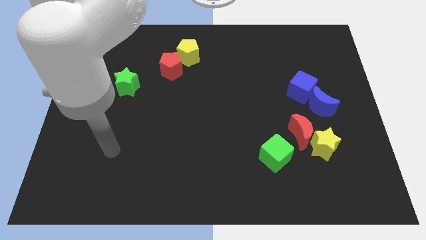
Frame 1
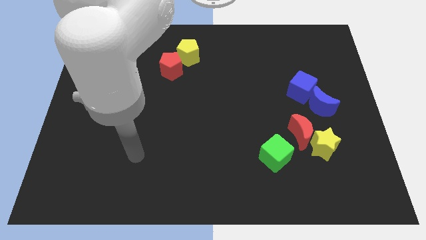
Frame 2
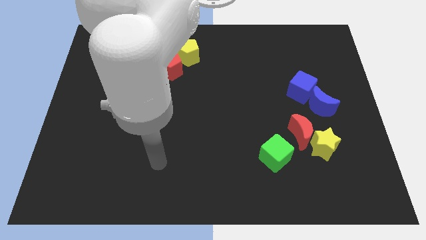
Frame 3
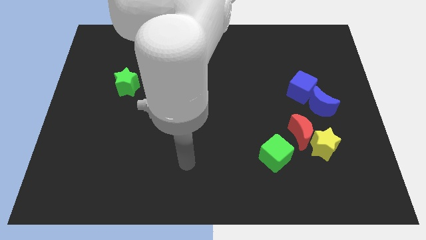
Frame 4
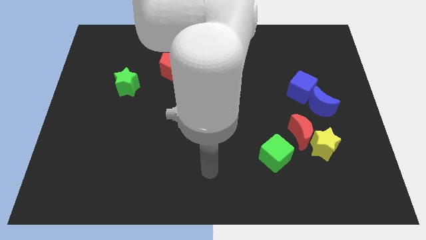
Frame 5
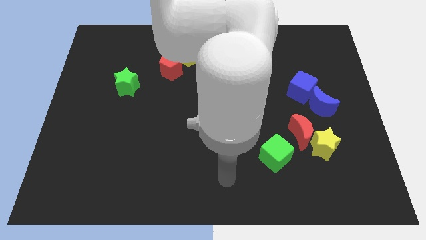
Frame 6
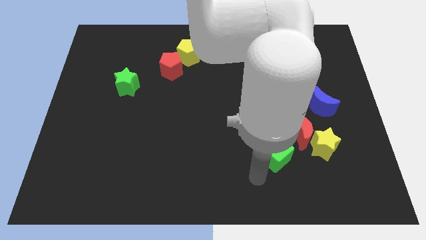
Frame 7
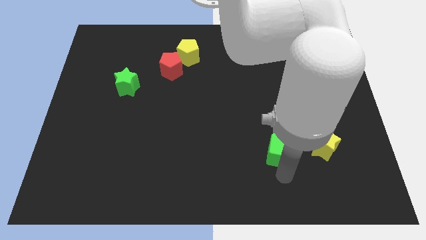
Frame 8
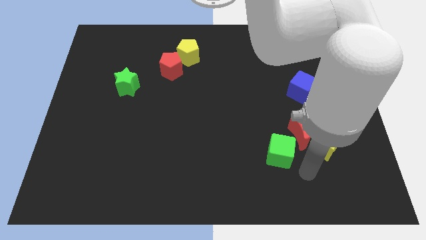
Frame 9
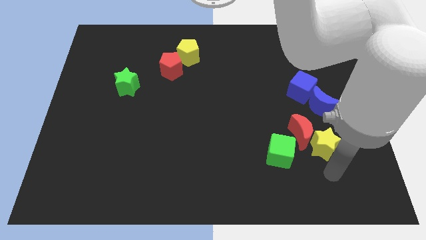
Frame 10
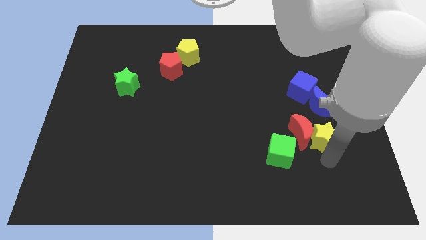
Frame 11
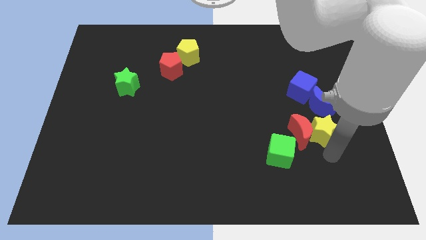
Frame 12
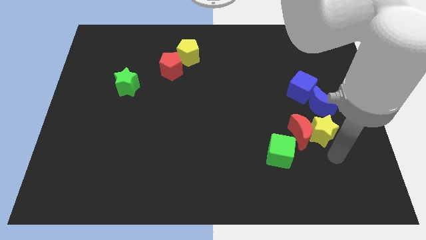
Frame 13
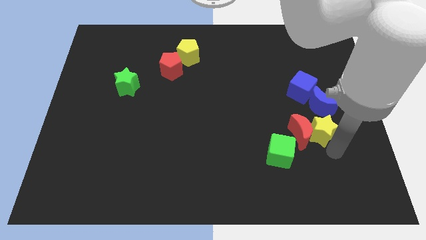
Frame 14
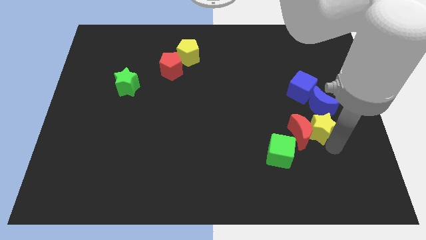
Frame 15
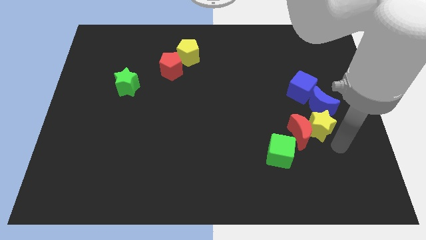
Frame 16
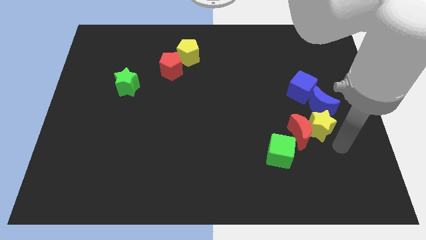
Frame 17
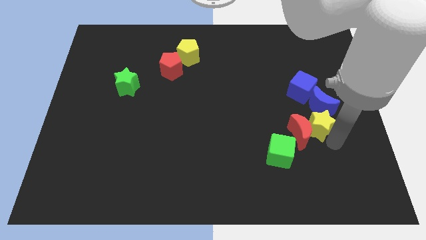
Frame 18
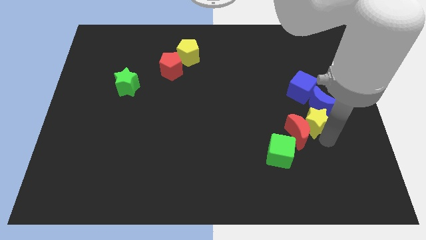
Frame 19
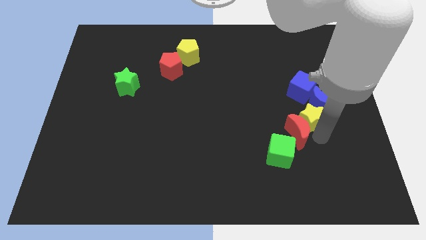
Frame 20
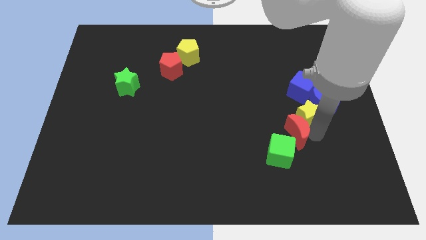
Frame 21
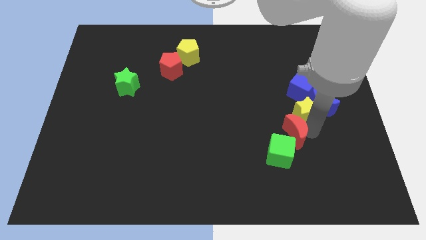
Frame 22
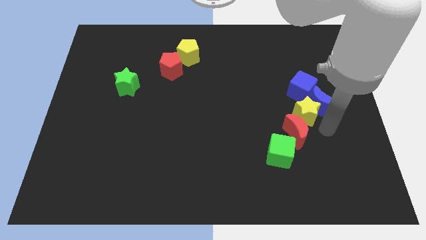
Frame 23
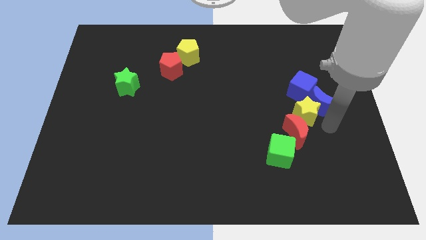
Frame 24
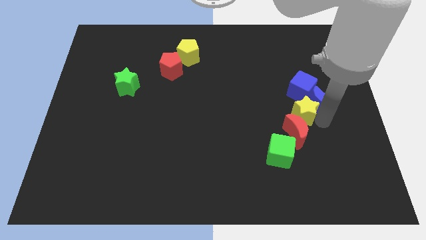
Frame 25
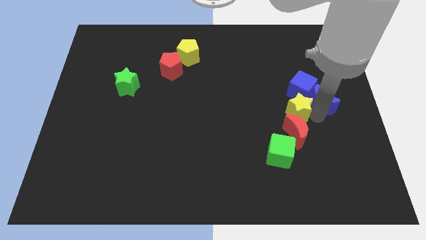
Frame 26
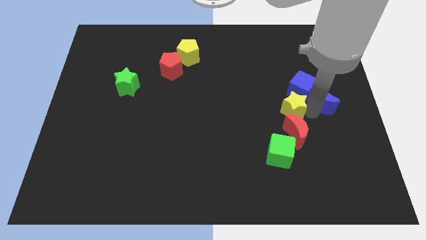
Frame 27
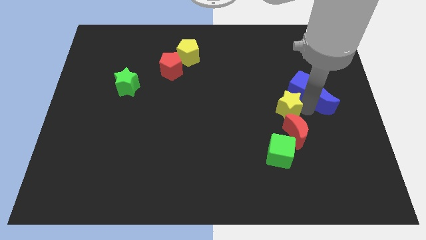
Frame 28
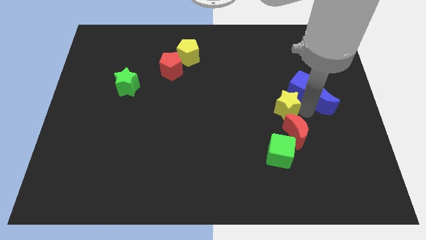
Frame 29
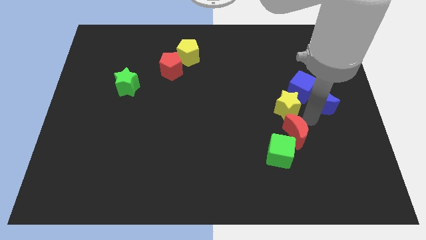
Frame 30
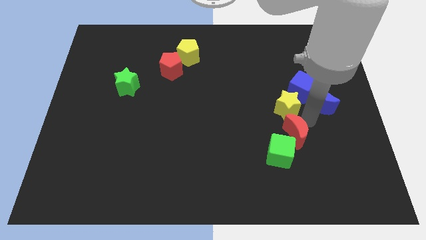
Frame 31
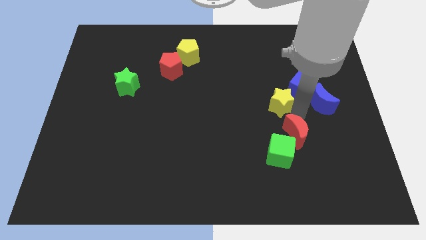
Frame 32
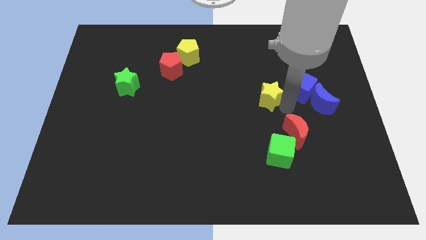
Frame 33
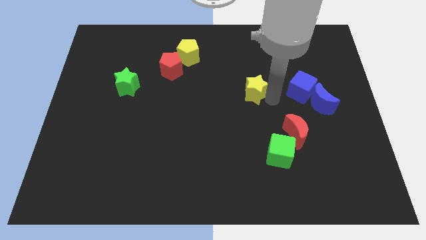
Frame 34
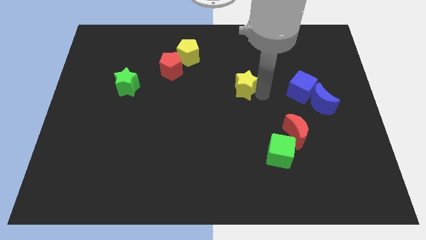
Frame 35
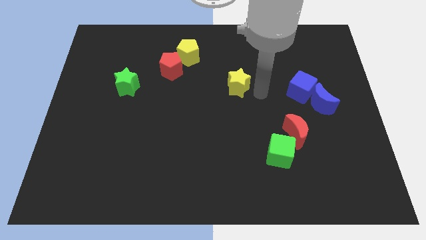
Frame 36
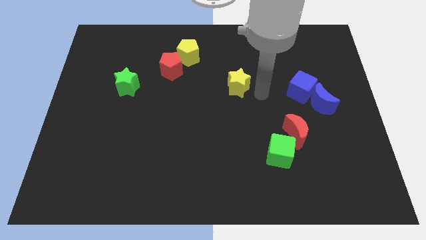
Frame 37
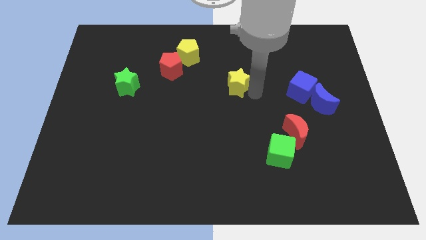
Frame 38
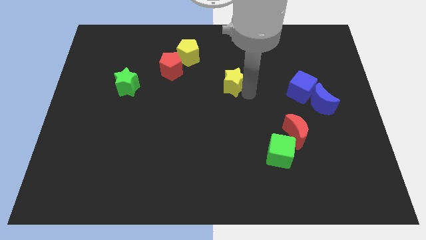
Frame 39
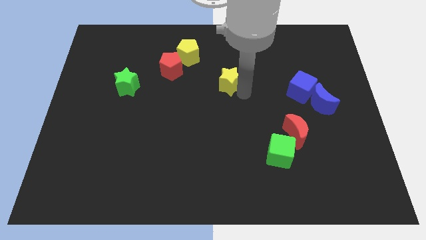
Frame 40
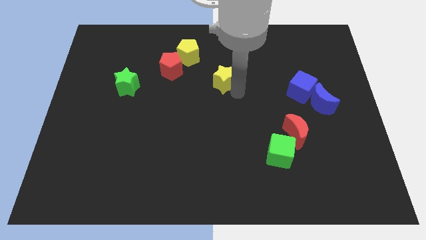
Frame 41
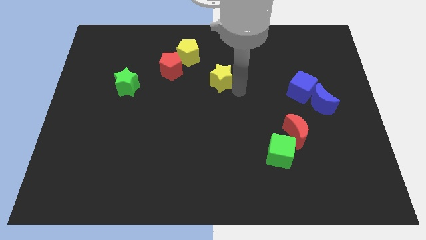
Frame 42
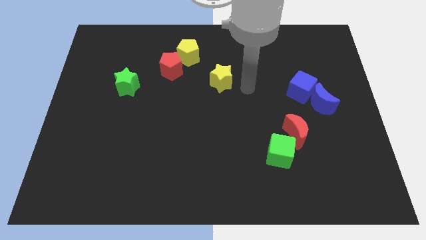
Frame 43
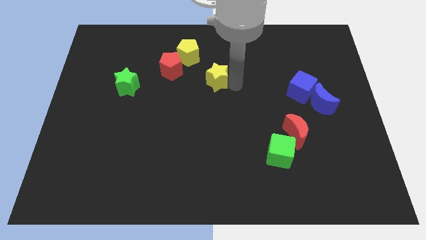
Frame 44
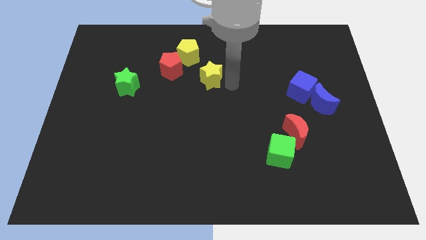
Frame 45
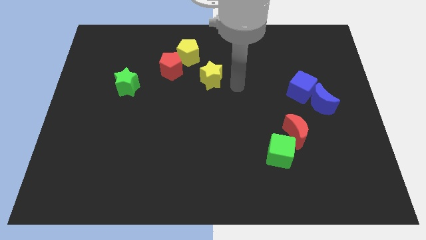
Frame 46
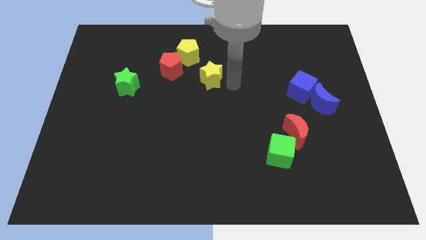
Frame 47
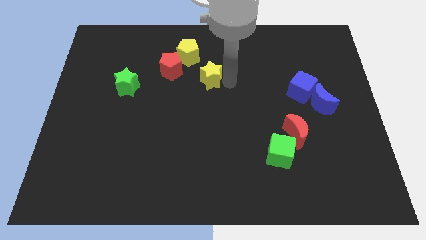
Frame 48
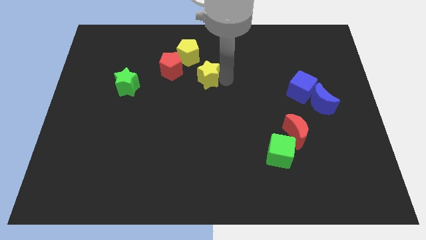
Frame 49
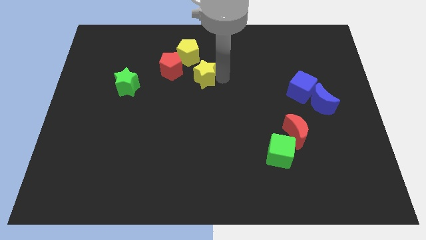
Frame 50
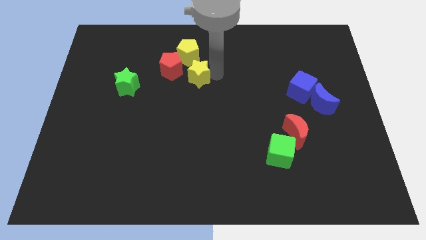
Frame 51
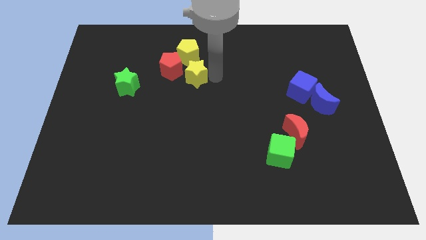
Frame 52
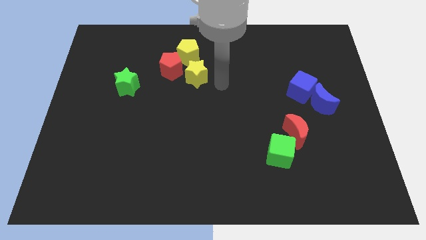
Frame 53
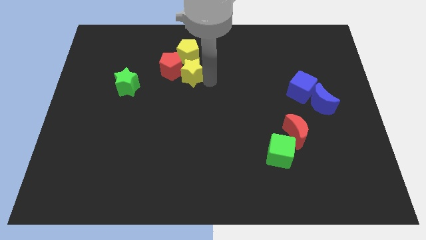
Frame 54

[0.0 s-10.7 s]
move the yellow star next to the red pentagon

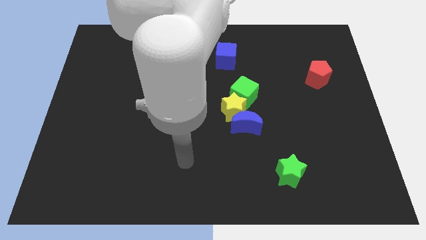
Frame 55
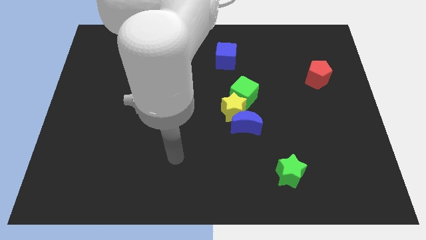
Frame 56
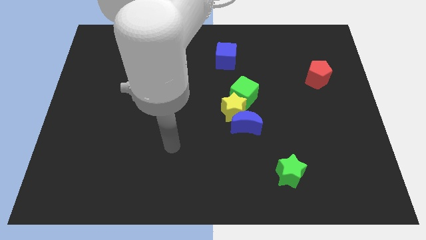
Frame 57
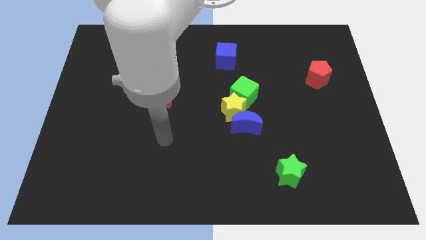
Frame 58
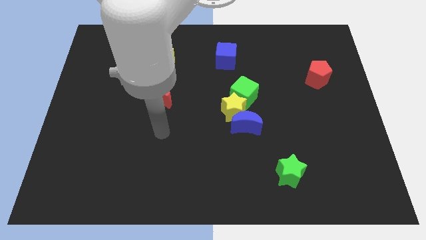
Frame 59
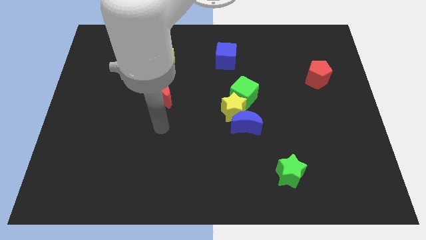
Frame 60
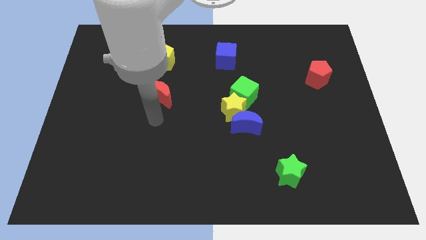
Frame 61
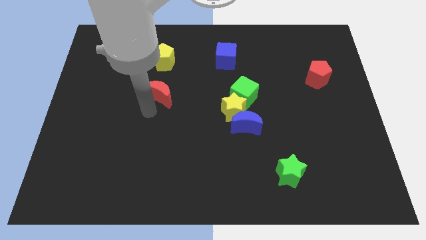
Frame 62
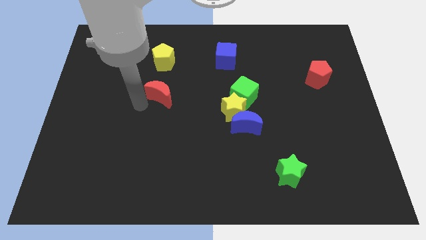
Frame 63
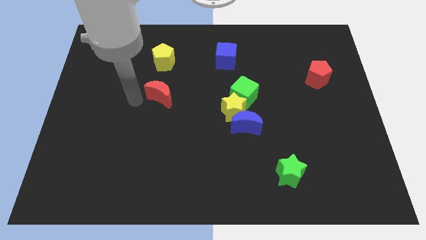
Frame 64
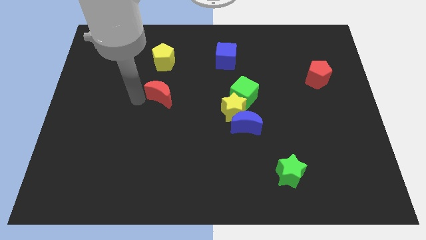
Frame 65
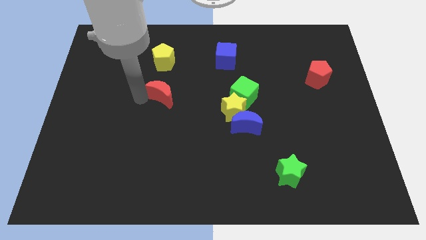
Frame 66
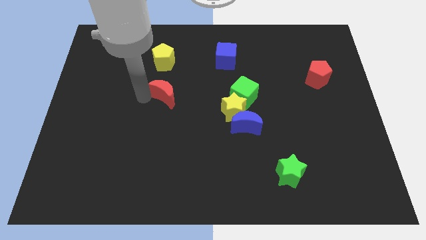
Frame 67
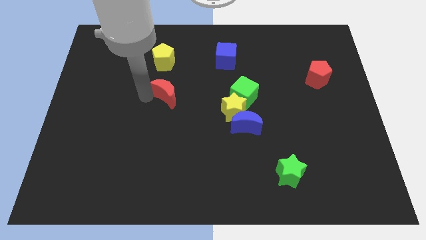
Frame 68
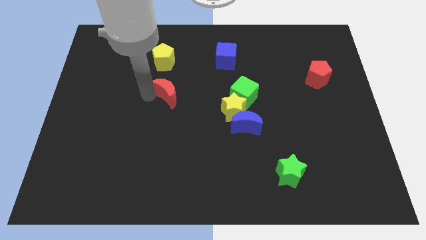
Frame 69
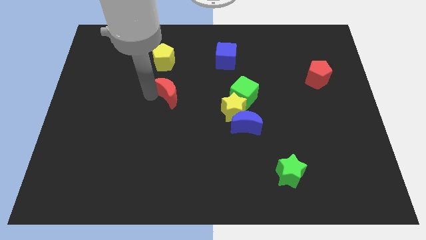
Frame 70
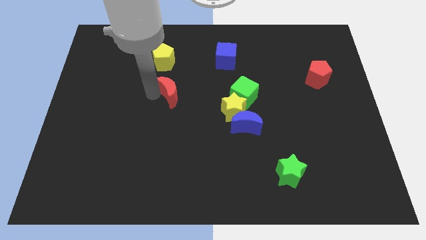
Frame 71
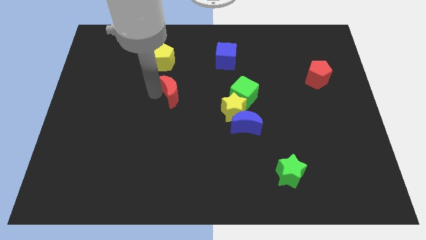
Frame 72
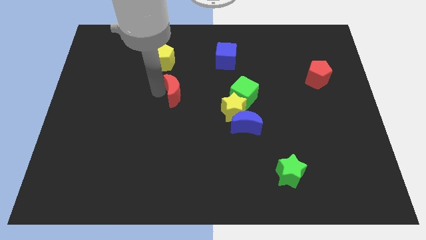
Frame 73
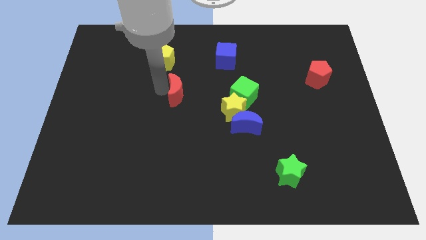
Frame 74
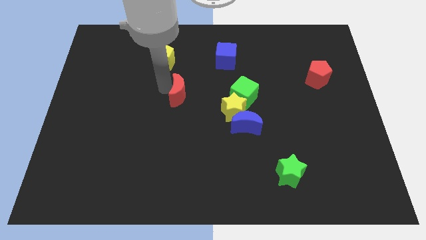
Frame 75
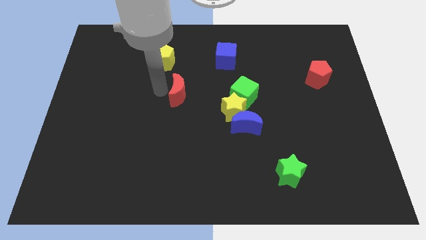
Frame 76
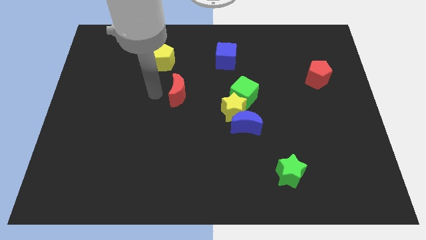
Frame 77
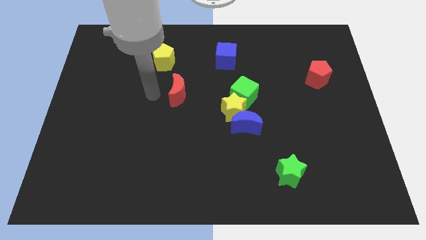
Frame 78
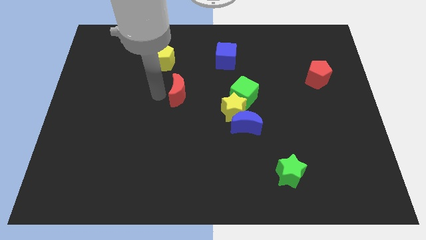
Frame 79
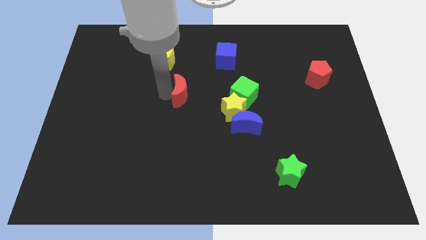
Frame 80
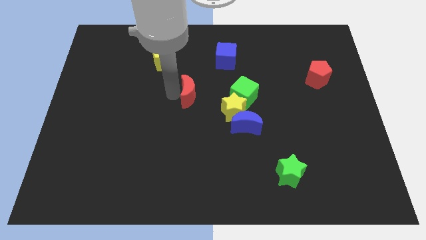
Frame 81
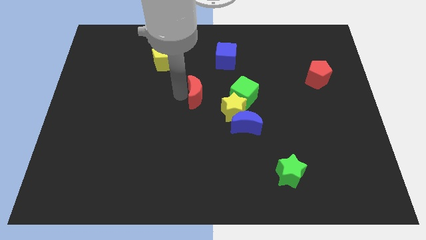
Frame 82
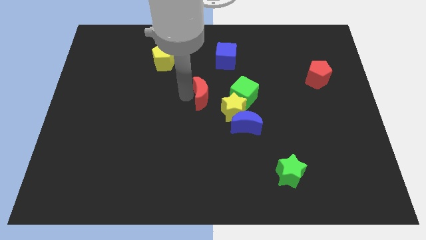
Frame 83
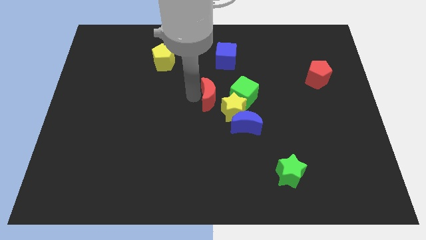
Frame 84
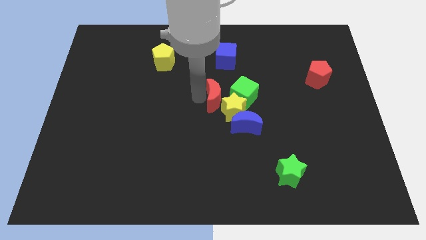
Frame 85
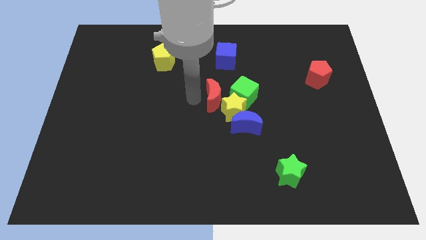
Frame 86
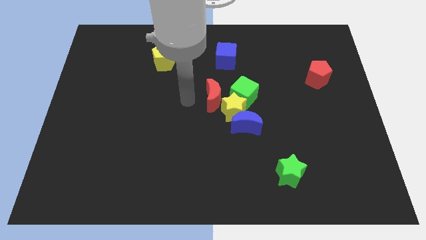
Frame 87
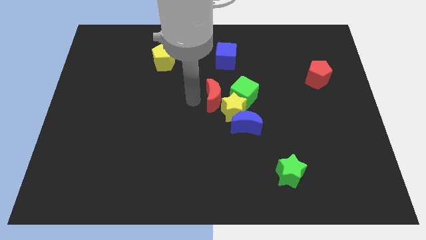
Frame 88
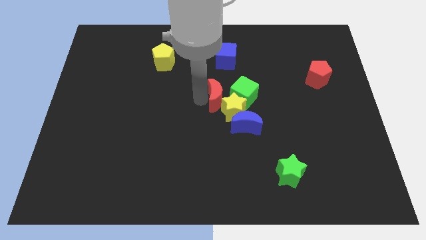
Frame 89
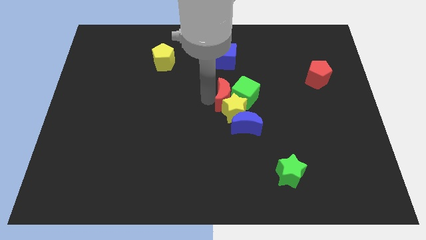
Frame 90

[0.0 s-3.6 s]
move the red moon close to the green cube
